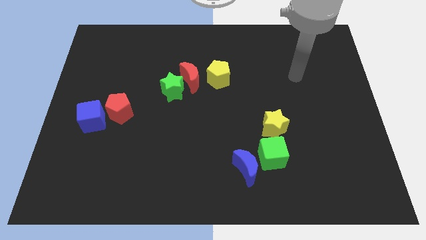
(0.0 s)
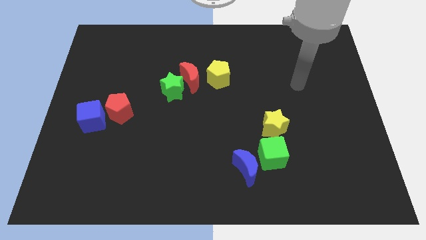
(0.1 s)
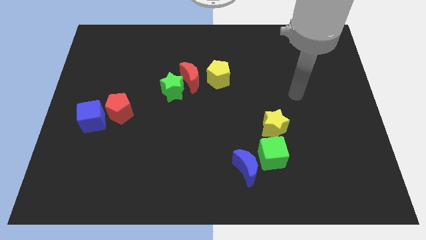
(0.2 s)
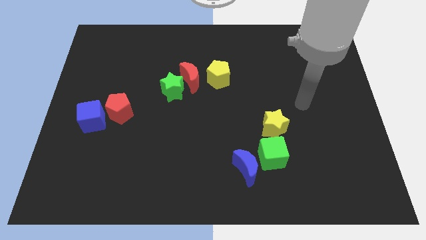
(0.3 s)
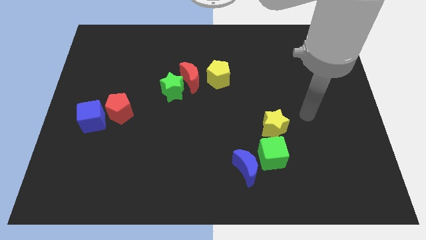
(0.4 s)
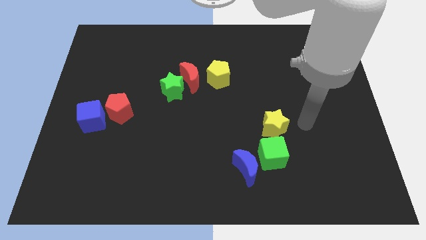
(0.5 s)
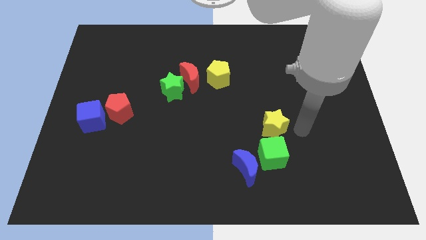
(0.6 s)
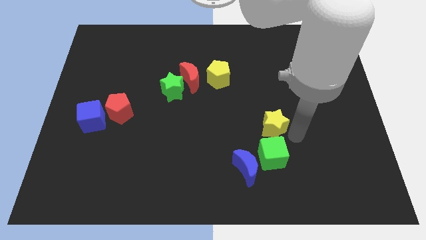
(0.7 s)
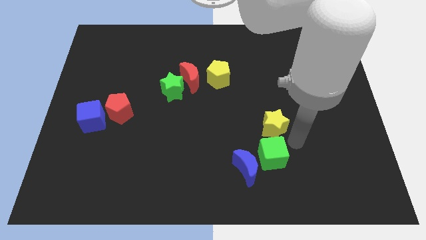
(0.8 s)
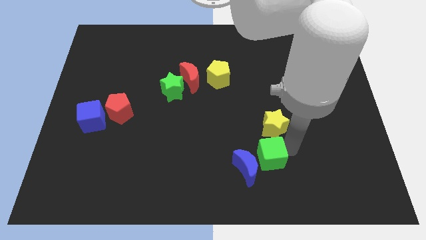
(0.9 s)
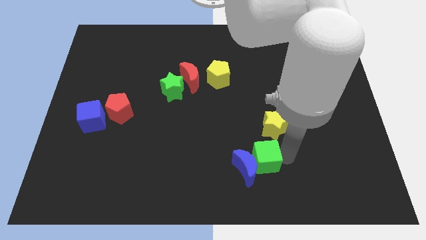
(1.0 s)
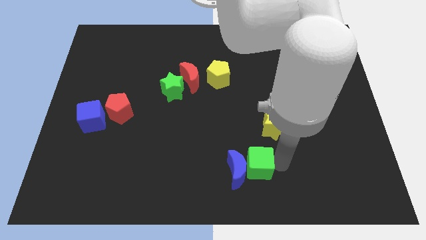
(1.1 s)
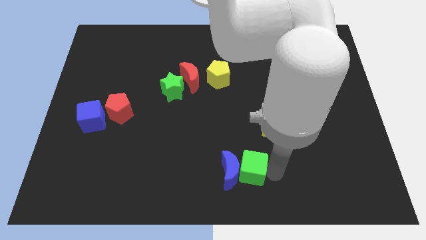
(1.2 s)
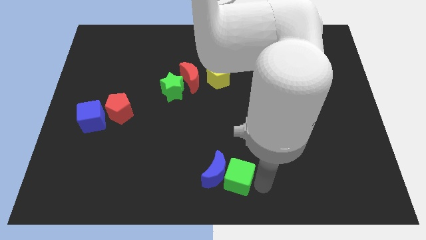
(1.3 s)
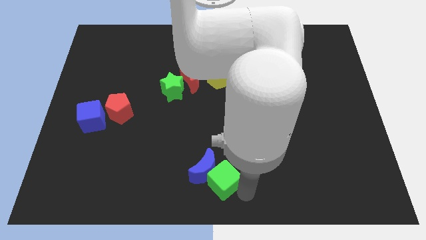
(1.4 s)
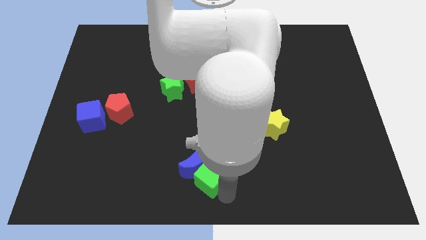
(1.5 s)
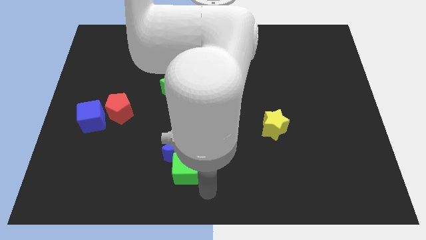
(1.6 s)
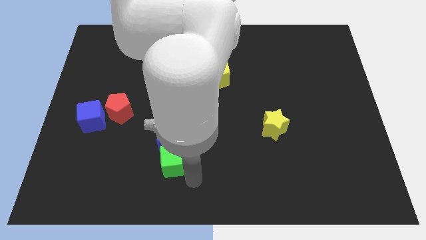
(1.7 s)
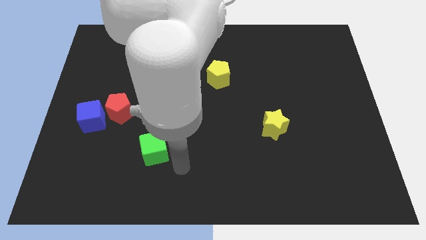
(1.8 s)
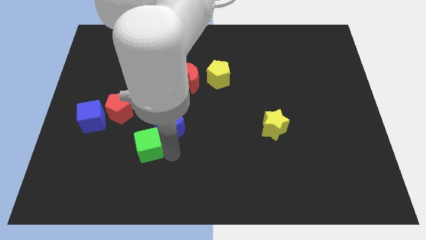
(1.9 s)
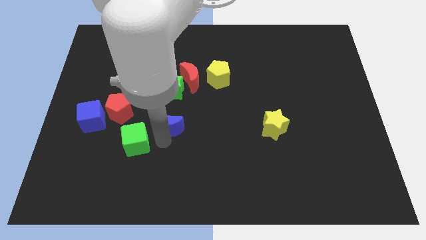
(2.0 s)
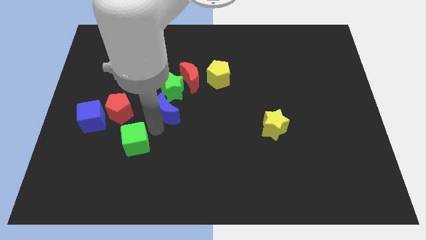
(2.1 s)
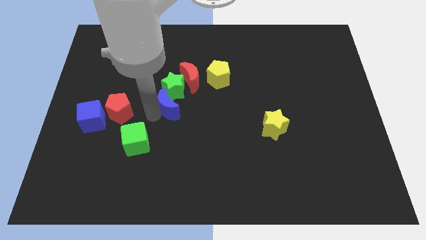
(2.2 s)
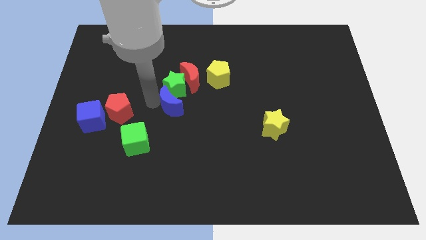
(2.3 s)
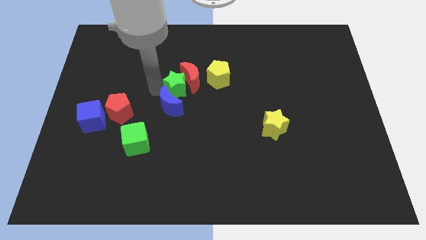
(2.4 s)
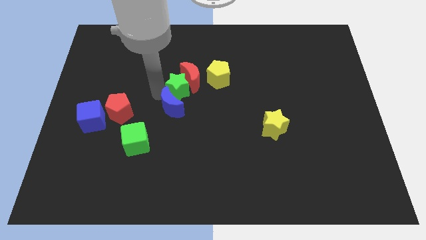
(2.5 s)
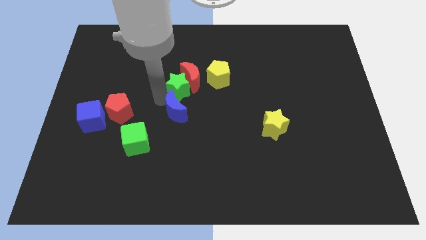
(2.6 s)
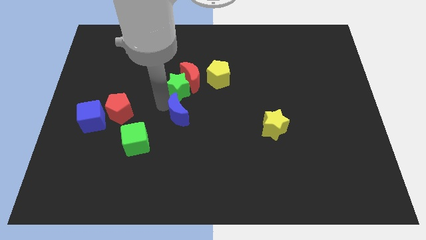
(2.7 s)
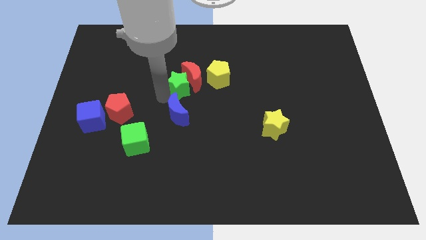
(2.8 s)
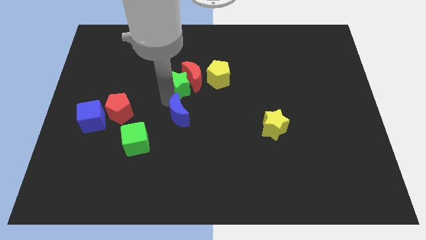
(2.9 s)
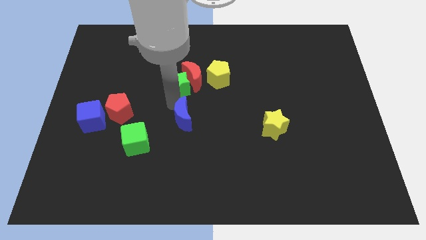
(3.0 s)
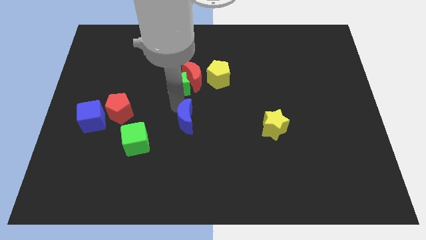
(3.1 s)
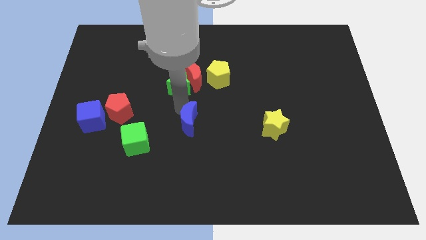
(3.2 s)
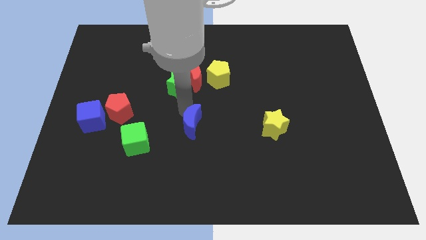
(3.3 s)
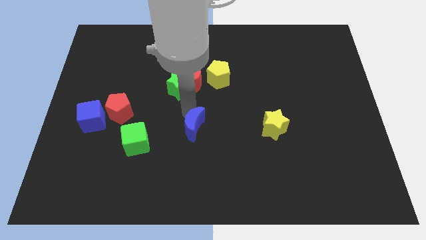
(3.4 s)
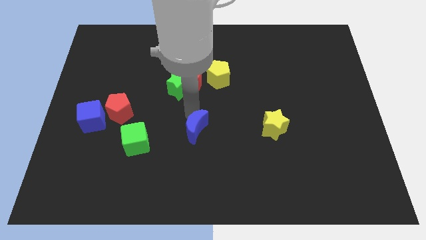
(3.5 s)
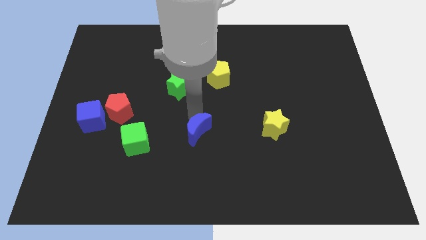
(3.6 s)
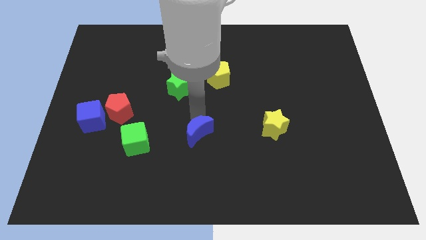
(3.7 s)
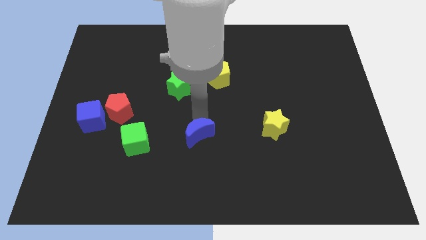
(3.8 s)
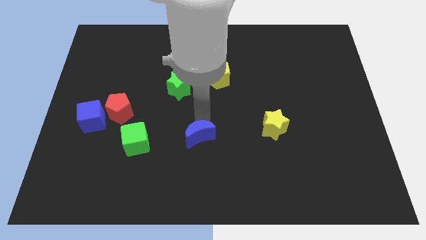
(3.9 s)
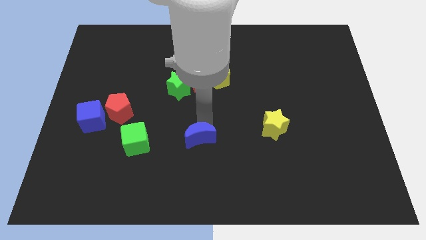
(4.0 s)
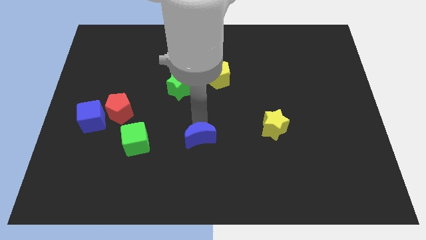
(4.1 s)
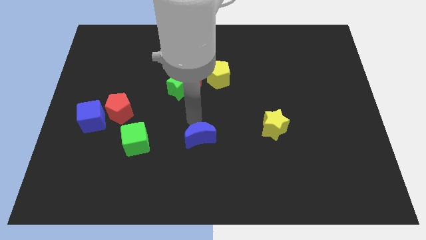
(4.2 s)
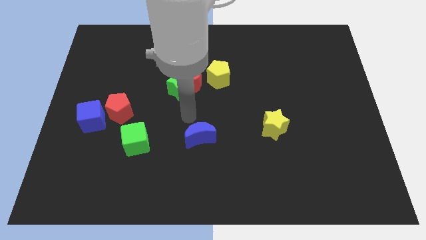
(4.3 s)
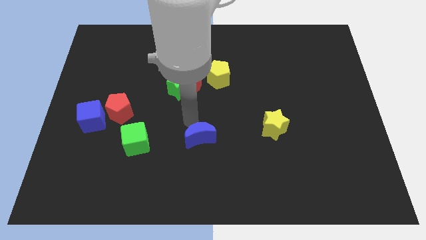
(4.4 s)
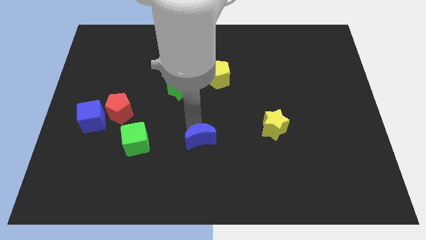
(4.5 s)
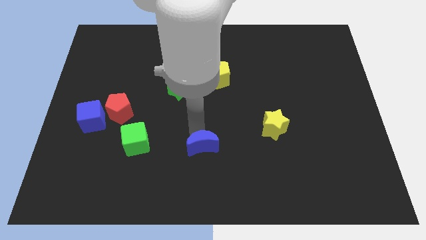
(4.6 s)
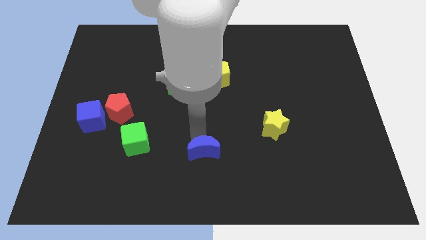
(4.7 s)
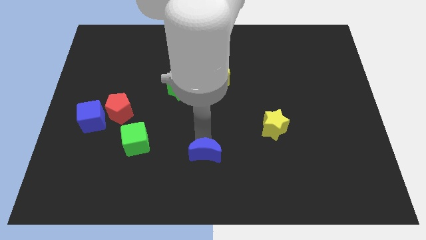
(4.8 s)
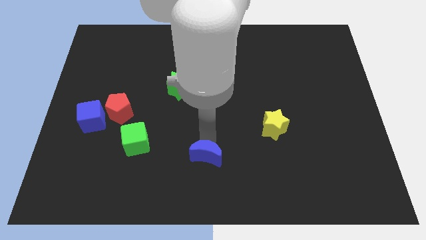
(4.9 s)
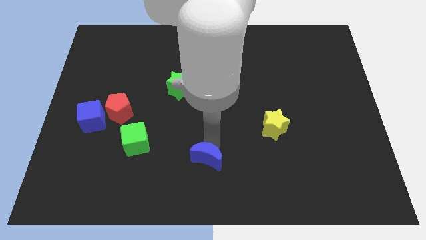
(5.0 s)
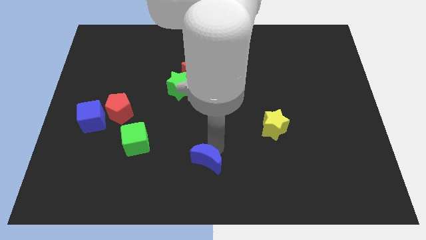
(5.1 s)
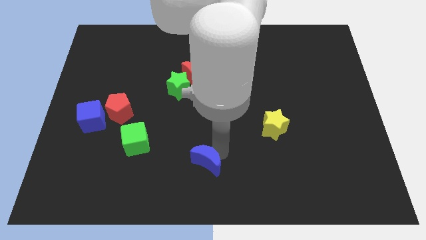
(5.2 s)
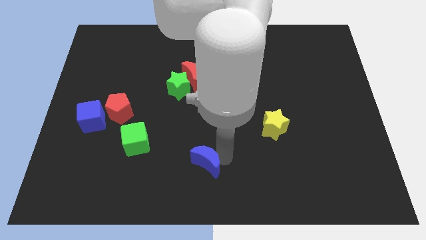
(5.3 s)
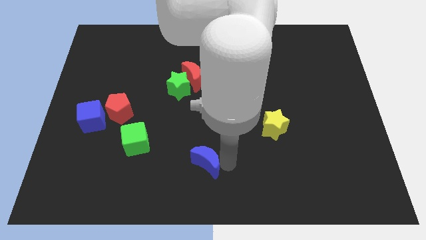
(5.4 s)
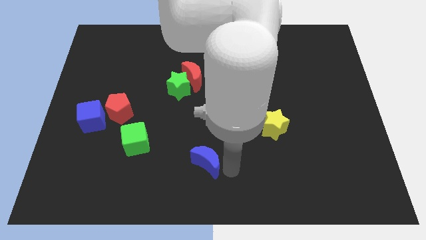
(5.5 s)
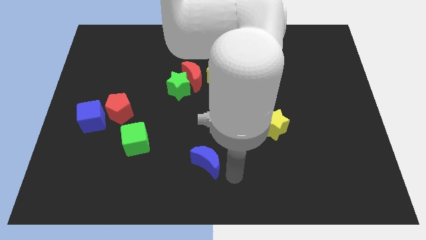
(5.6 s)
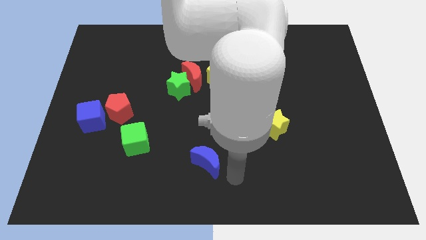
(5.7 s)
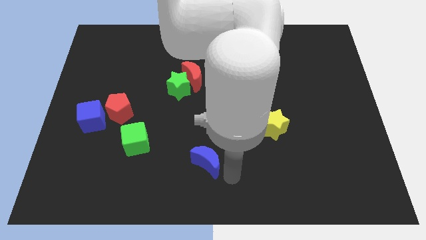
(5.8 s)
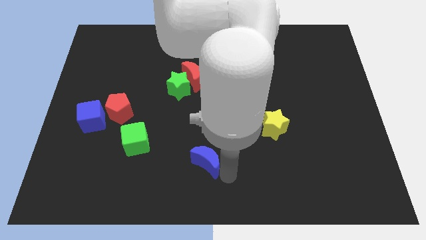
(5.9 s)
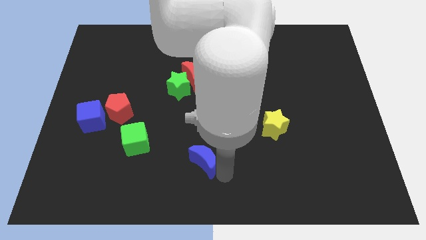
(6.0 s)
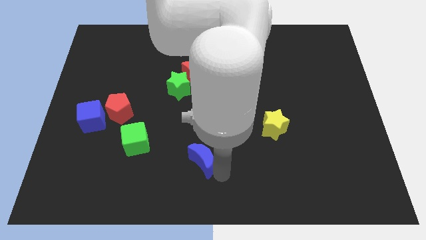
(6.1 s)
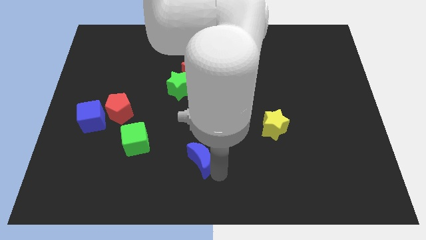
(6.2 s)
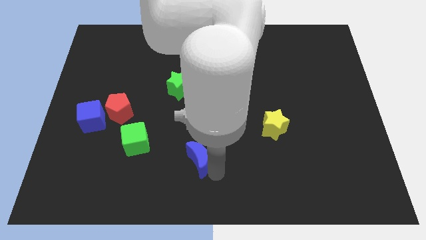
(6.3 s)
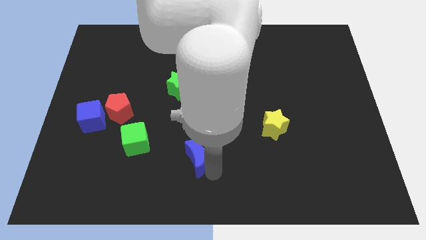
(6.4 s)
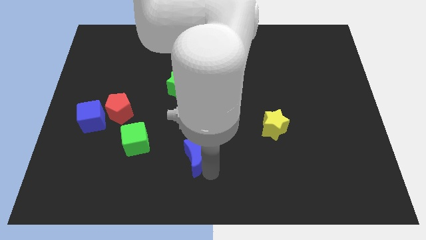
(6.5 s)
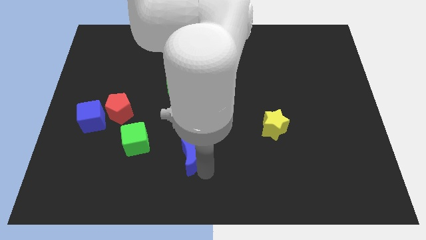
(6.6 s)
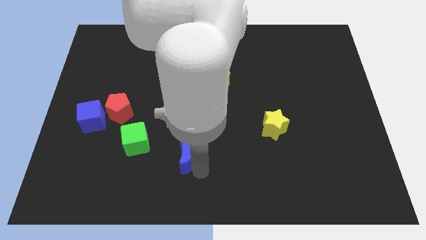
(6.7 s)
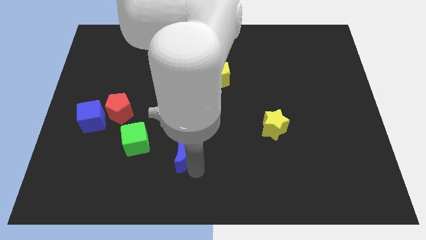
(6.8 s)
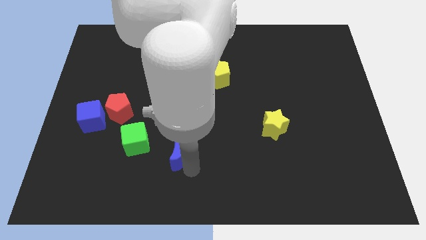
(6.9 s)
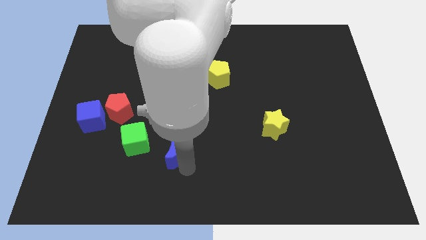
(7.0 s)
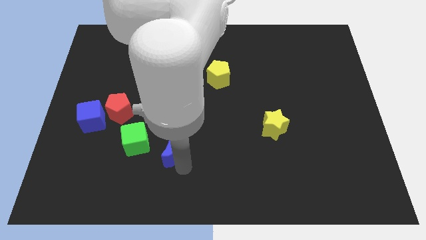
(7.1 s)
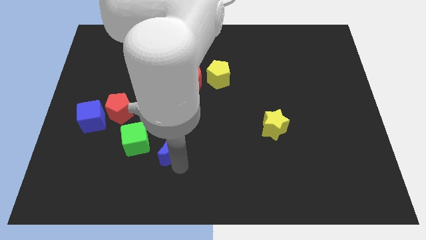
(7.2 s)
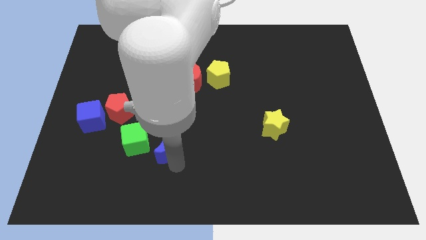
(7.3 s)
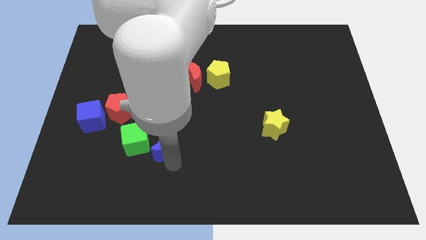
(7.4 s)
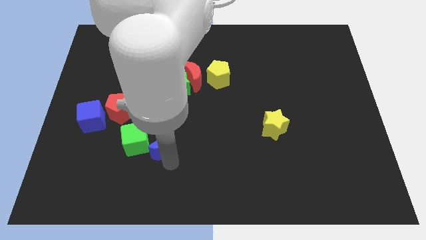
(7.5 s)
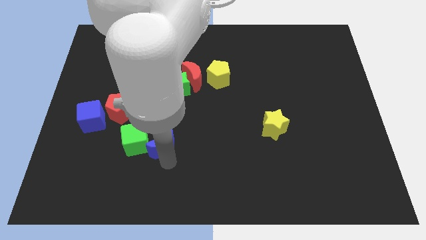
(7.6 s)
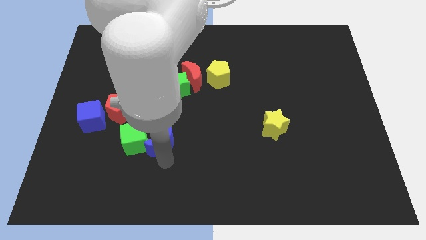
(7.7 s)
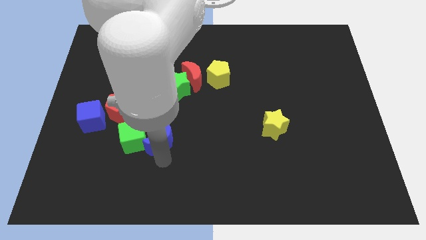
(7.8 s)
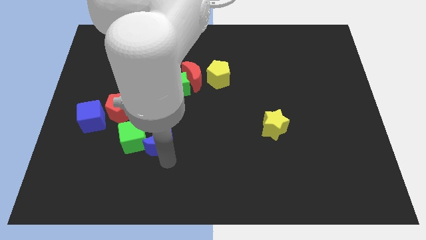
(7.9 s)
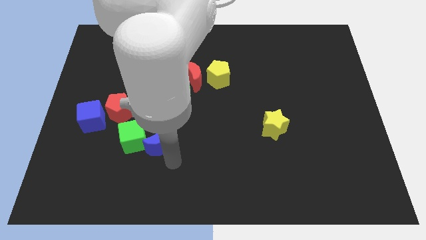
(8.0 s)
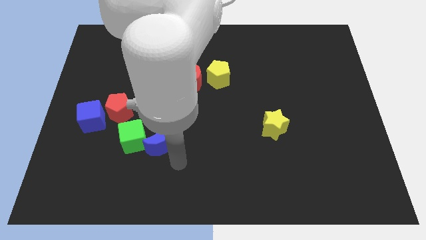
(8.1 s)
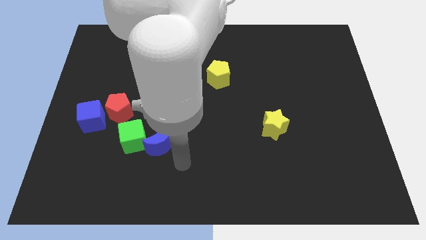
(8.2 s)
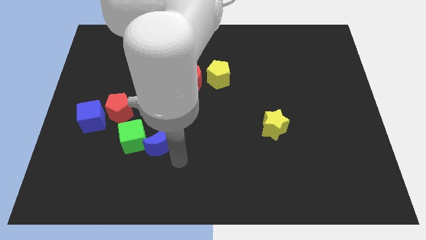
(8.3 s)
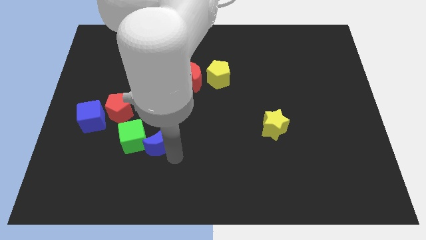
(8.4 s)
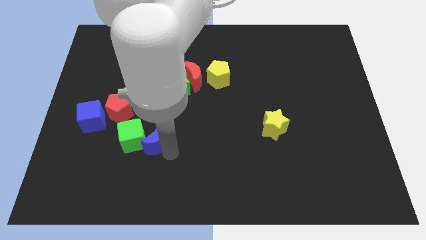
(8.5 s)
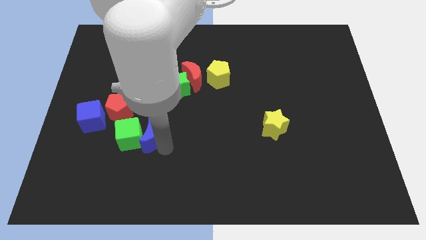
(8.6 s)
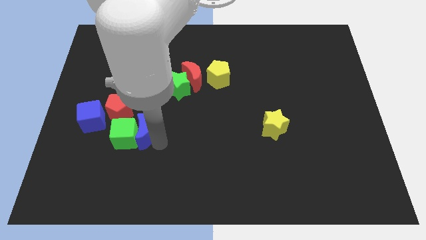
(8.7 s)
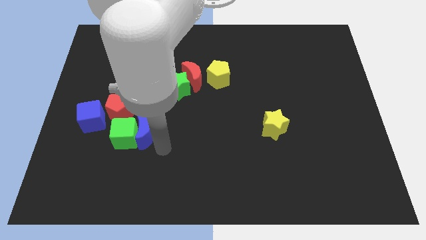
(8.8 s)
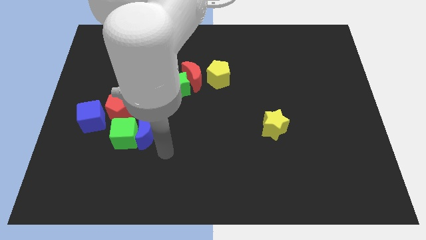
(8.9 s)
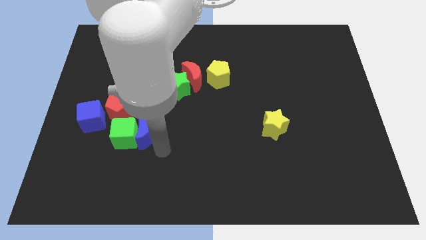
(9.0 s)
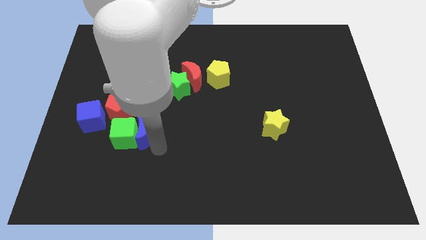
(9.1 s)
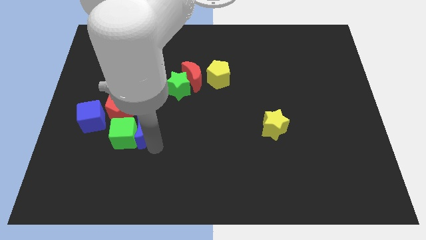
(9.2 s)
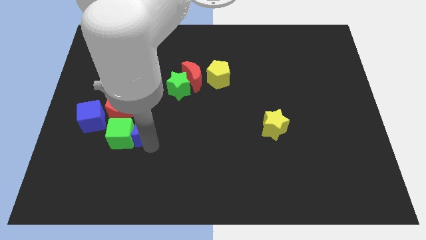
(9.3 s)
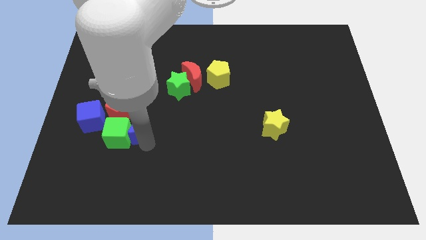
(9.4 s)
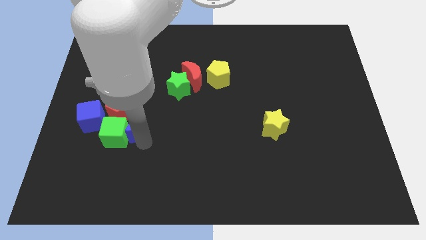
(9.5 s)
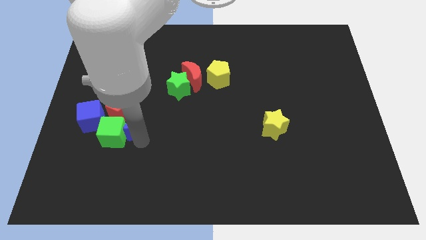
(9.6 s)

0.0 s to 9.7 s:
put the blue moon close to the red pentagon
